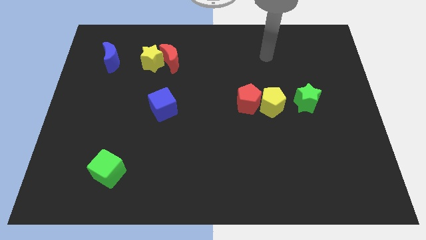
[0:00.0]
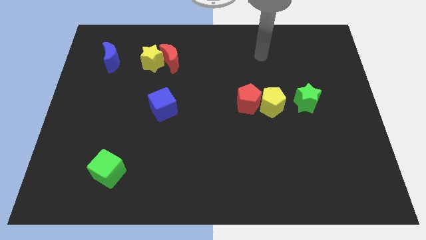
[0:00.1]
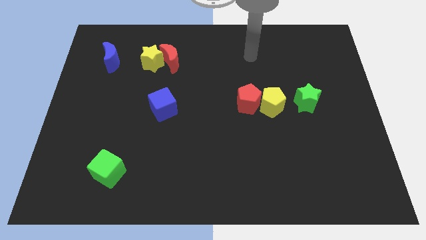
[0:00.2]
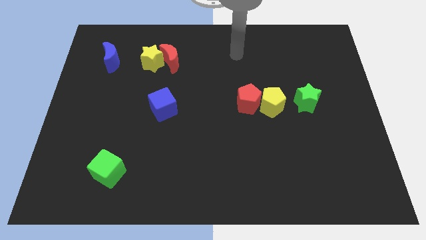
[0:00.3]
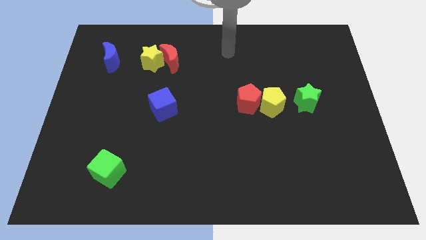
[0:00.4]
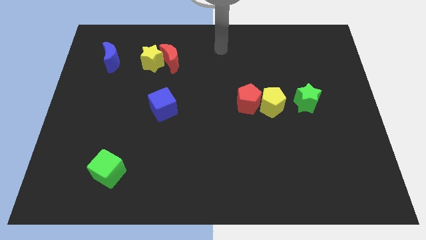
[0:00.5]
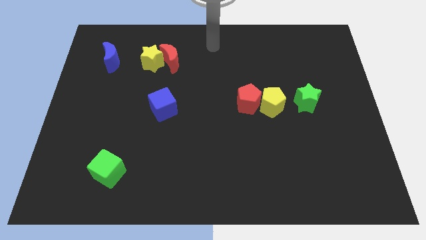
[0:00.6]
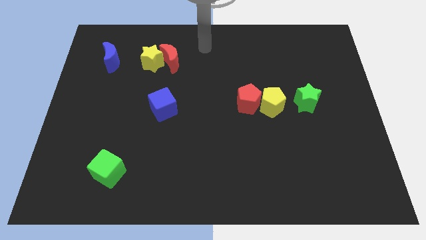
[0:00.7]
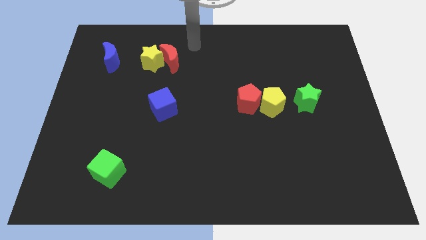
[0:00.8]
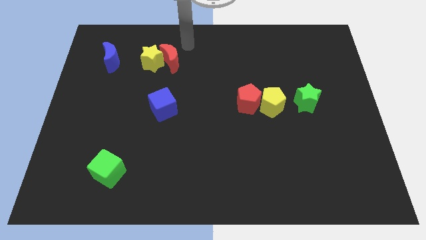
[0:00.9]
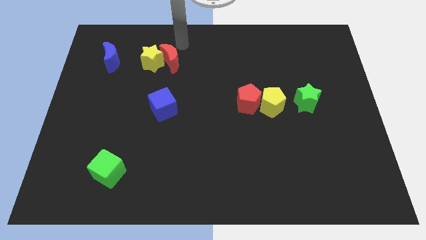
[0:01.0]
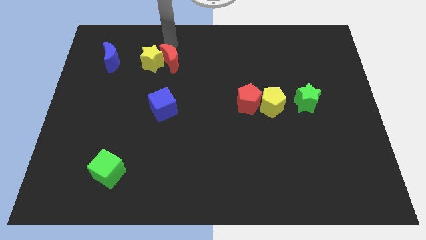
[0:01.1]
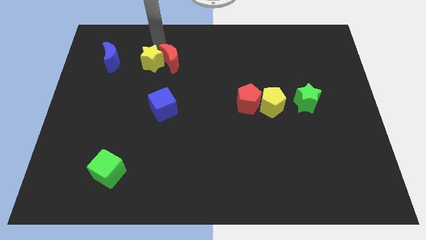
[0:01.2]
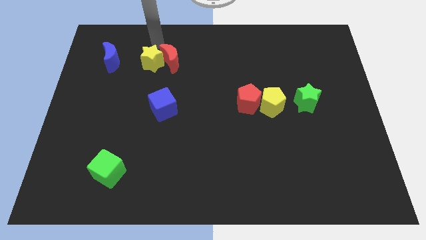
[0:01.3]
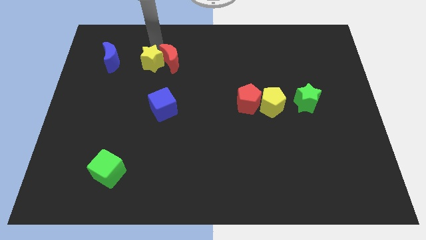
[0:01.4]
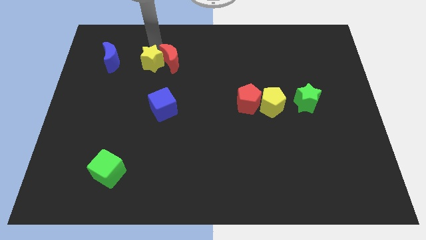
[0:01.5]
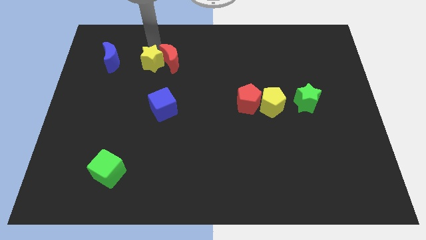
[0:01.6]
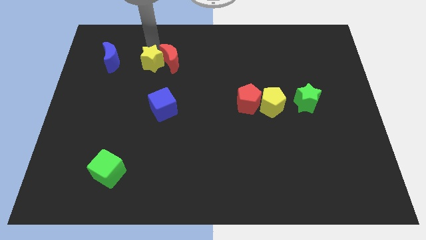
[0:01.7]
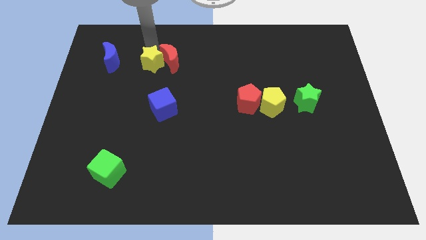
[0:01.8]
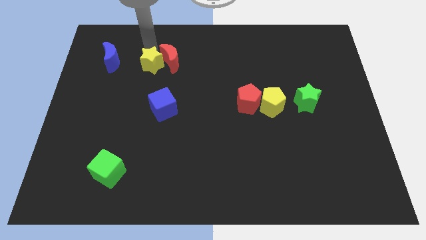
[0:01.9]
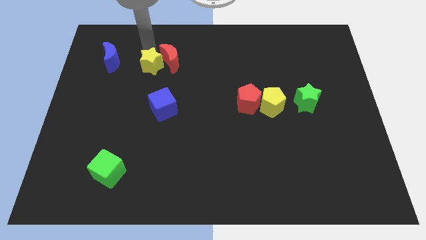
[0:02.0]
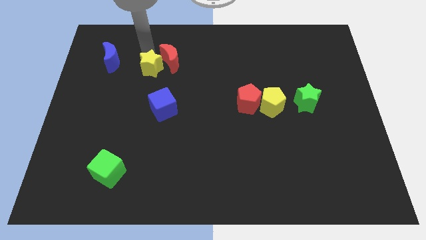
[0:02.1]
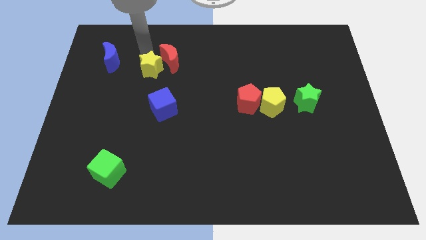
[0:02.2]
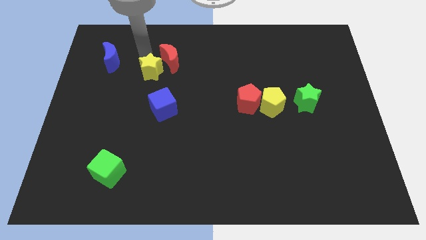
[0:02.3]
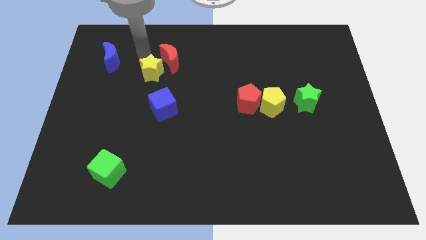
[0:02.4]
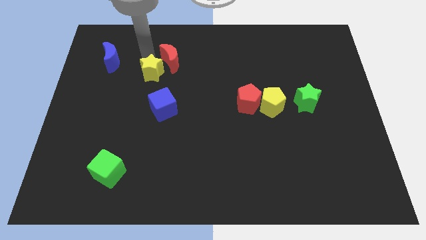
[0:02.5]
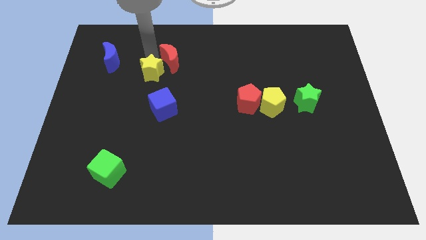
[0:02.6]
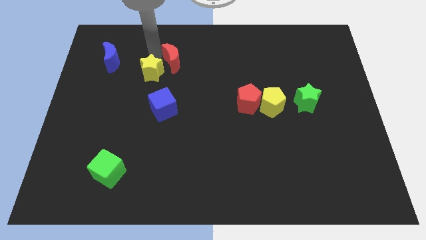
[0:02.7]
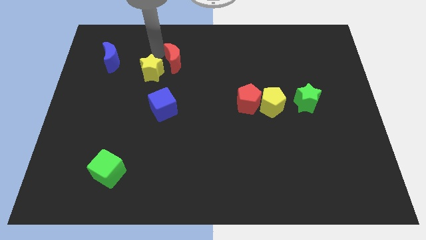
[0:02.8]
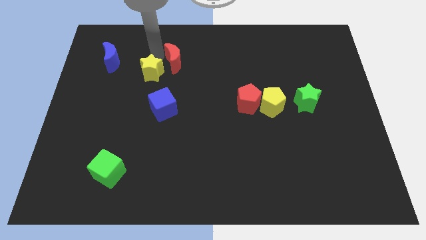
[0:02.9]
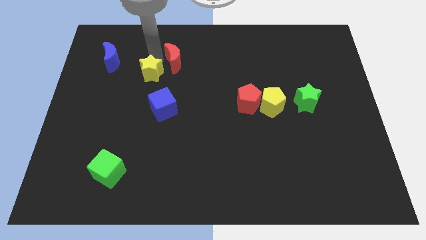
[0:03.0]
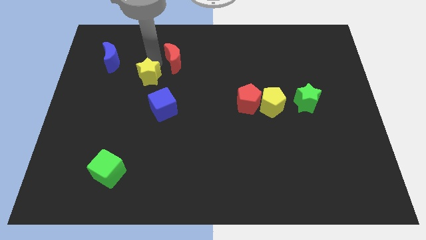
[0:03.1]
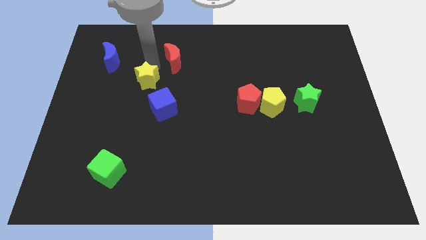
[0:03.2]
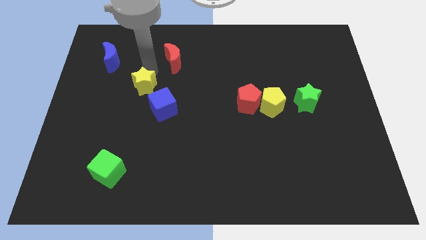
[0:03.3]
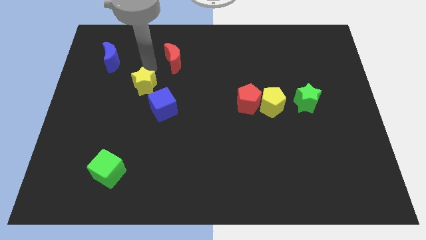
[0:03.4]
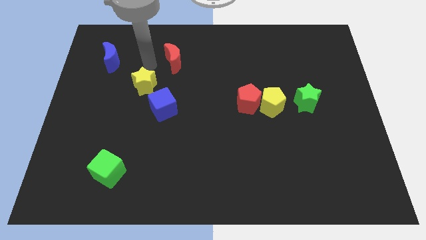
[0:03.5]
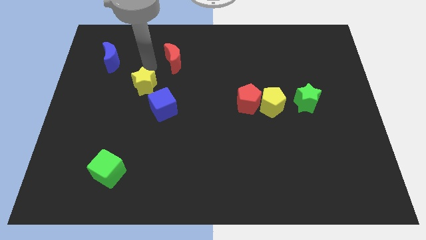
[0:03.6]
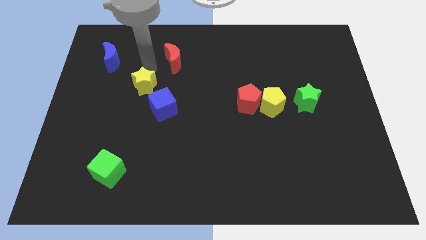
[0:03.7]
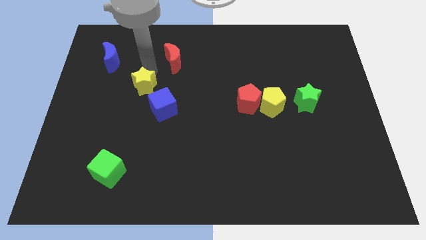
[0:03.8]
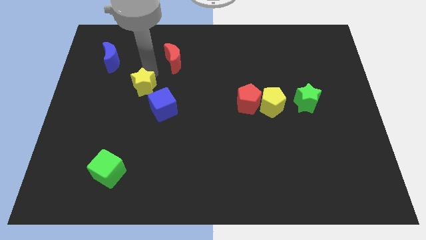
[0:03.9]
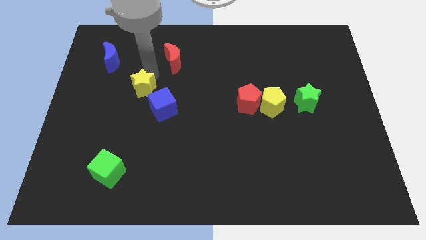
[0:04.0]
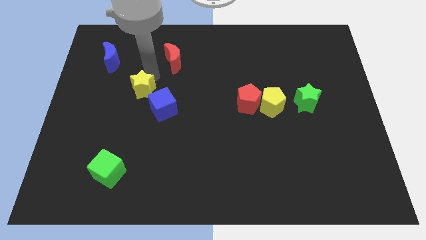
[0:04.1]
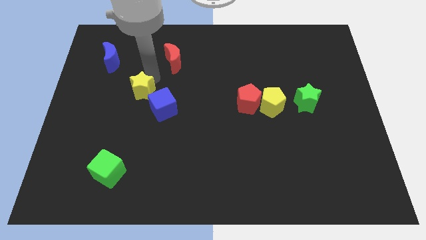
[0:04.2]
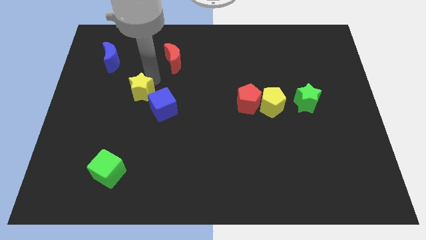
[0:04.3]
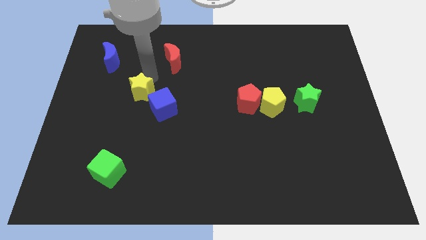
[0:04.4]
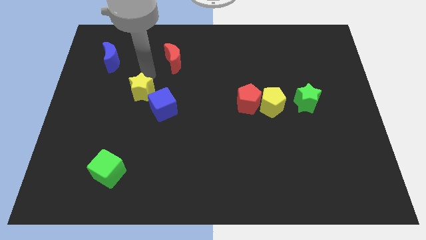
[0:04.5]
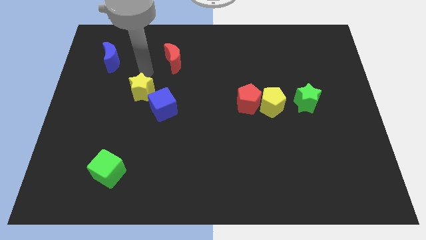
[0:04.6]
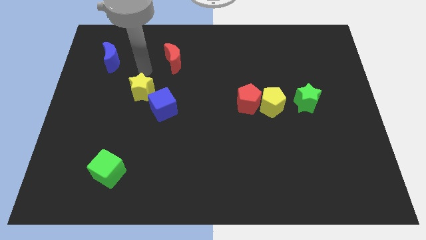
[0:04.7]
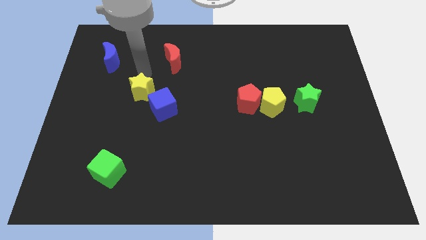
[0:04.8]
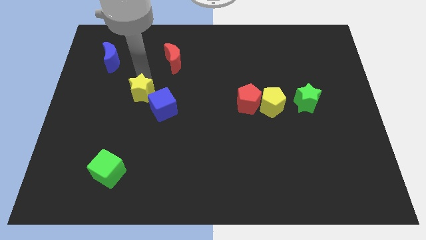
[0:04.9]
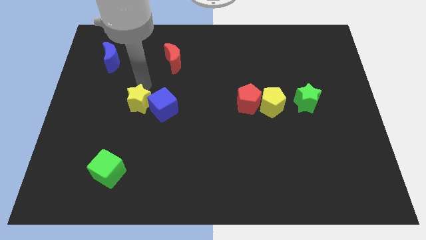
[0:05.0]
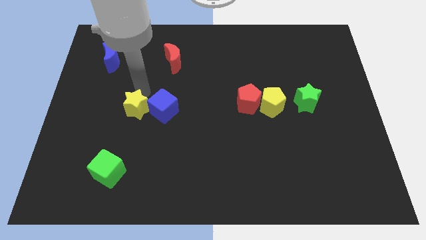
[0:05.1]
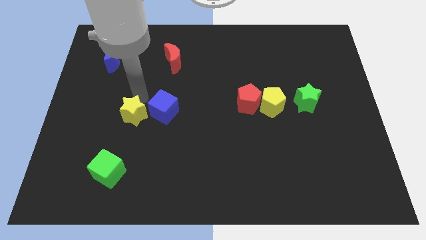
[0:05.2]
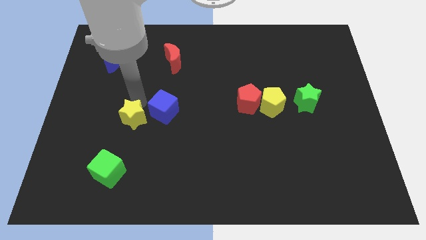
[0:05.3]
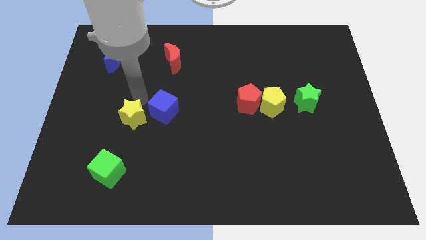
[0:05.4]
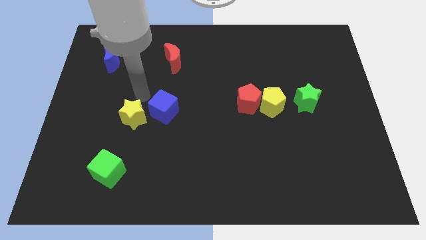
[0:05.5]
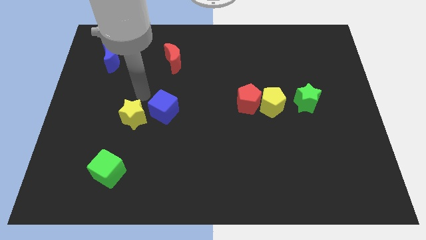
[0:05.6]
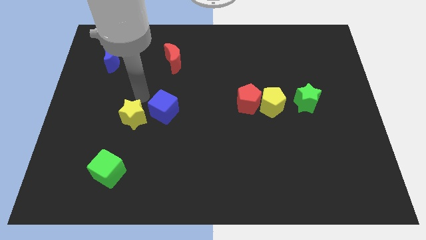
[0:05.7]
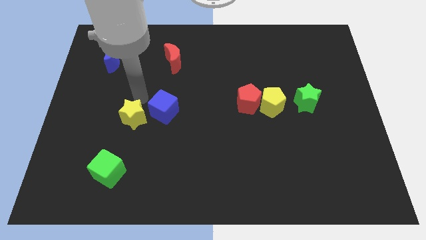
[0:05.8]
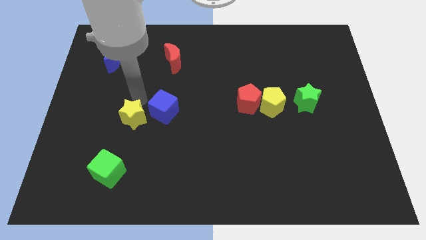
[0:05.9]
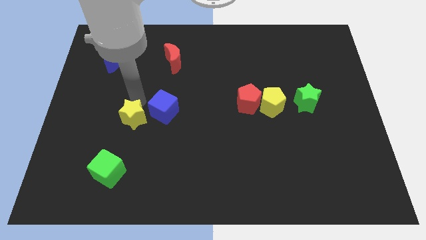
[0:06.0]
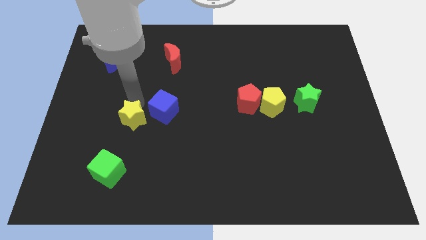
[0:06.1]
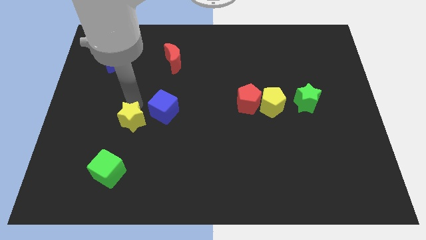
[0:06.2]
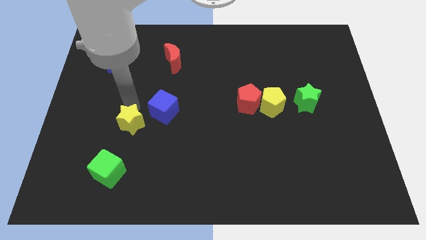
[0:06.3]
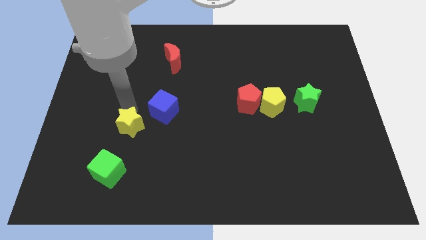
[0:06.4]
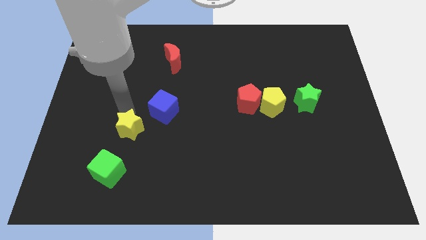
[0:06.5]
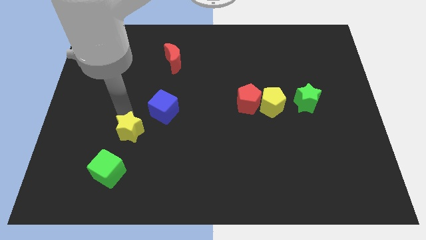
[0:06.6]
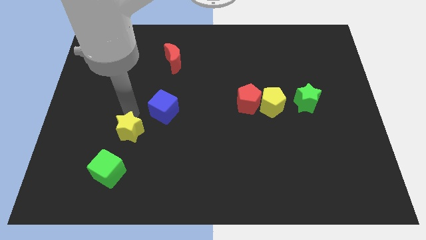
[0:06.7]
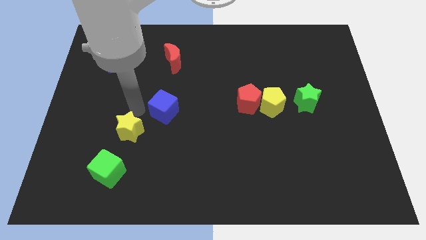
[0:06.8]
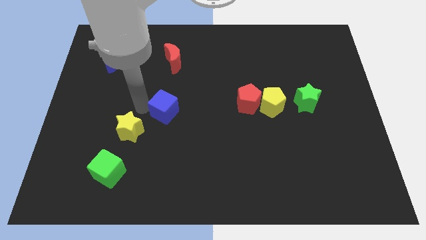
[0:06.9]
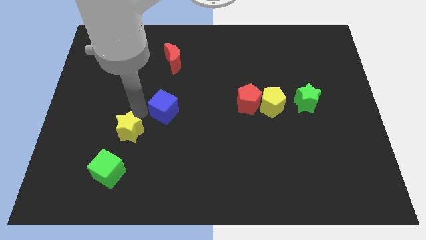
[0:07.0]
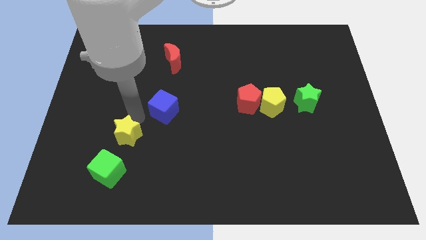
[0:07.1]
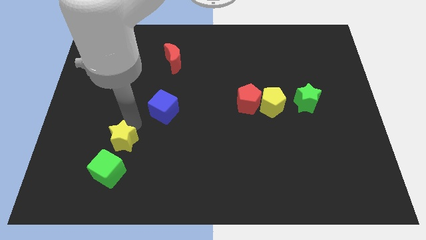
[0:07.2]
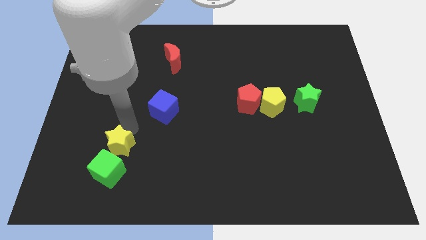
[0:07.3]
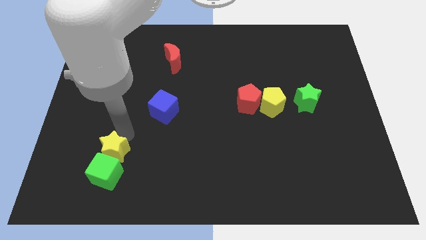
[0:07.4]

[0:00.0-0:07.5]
slide the yellow star next to the green cube
